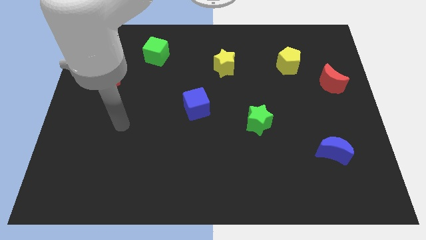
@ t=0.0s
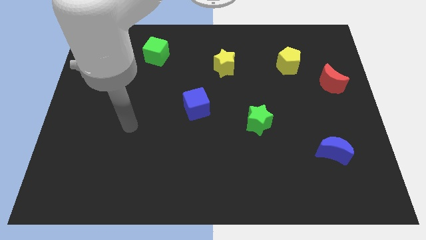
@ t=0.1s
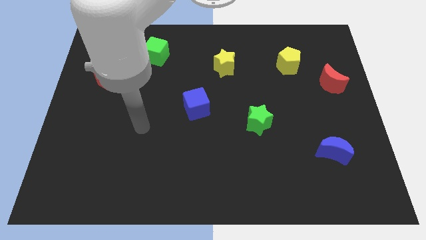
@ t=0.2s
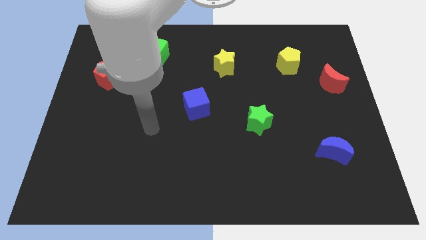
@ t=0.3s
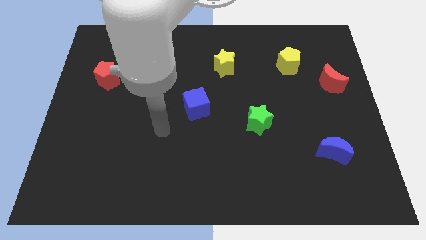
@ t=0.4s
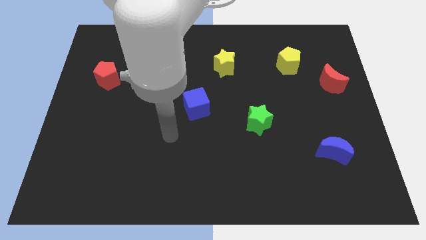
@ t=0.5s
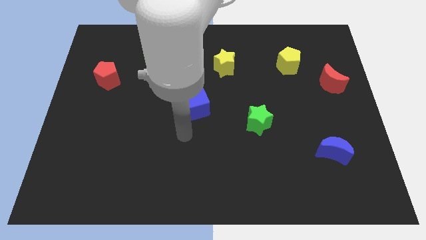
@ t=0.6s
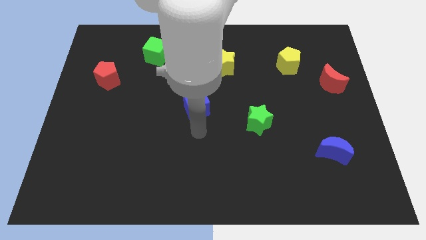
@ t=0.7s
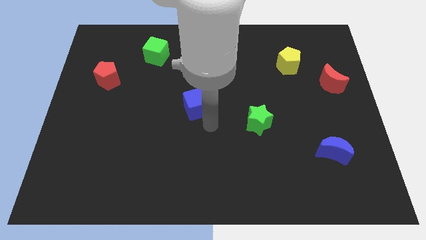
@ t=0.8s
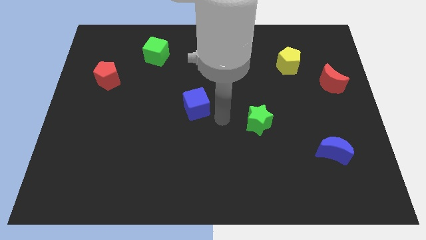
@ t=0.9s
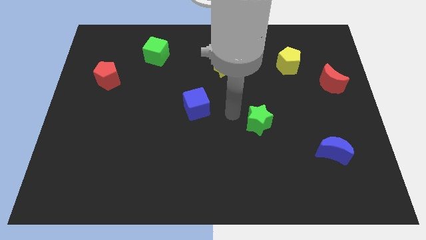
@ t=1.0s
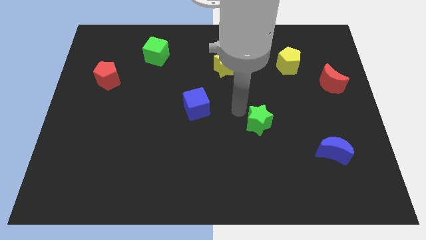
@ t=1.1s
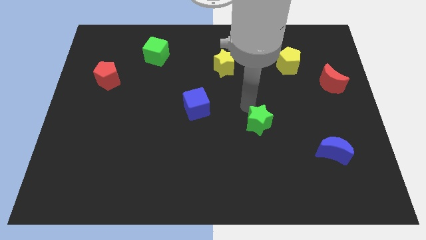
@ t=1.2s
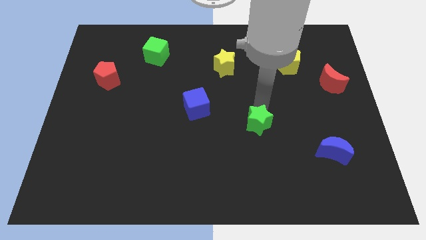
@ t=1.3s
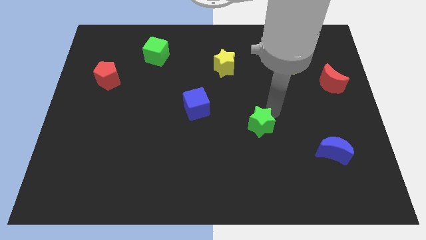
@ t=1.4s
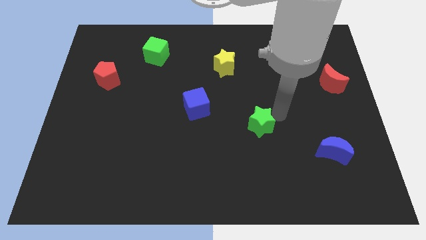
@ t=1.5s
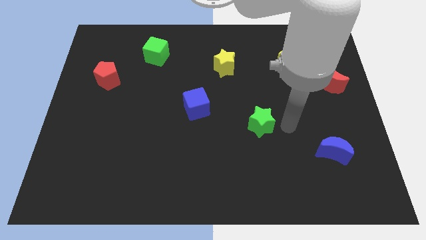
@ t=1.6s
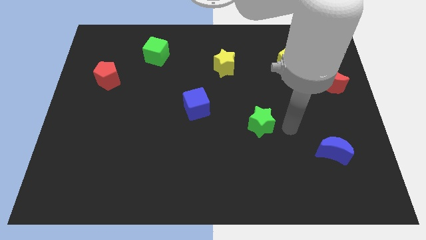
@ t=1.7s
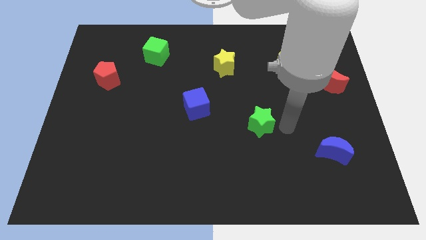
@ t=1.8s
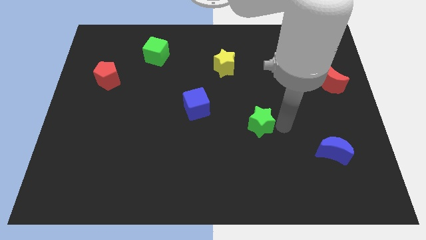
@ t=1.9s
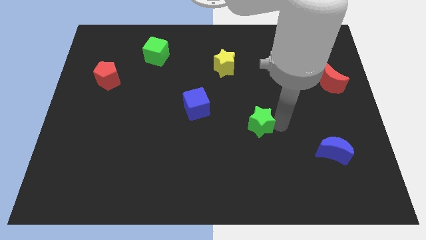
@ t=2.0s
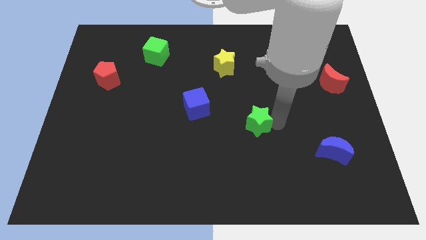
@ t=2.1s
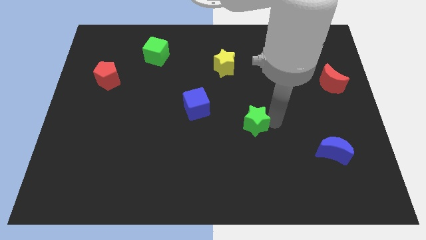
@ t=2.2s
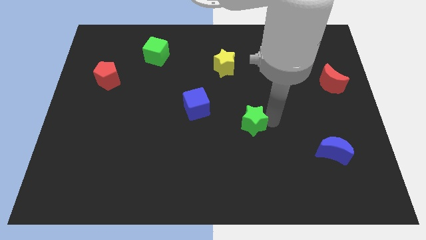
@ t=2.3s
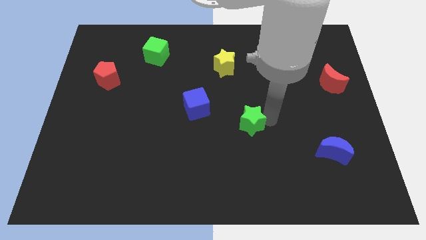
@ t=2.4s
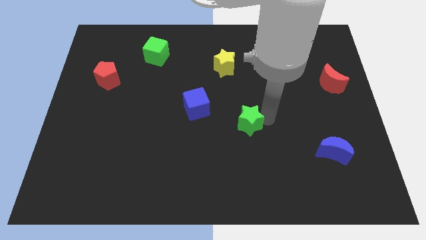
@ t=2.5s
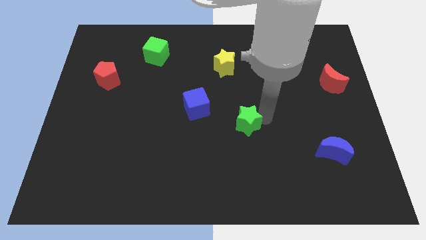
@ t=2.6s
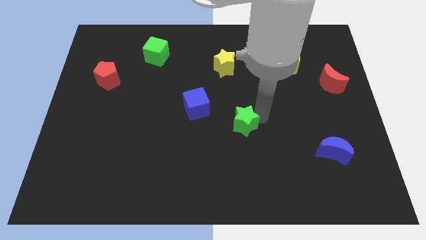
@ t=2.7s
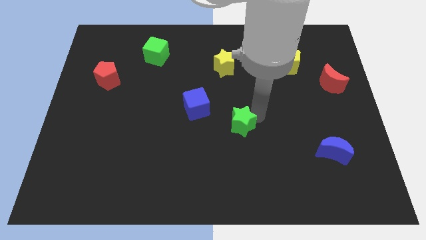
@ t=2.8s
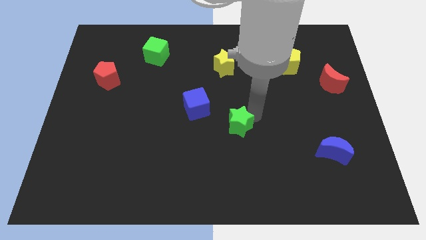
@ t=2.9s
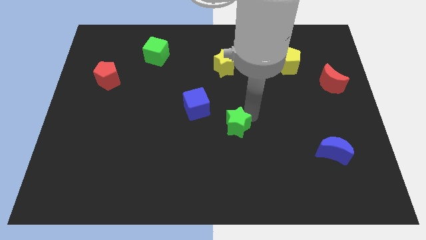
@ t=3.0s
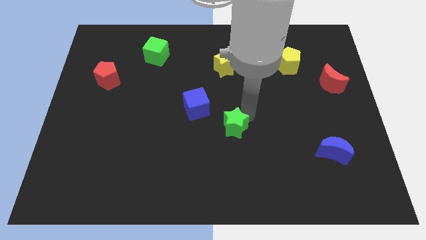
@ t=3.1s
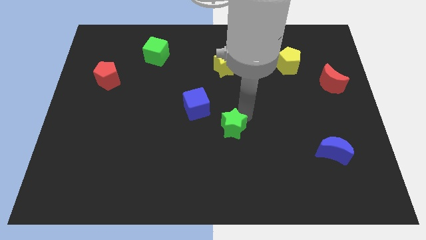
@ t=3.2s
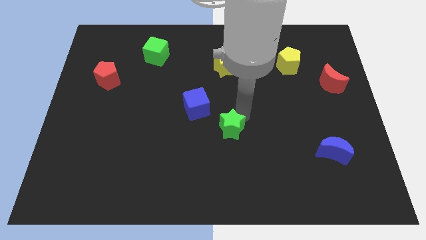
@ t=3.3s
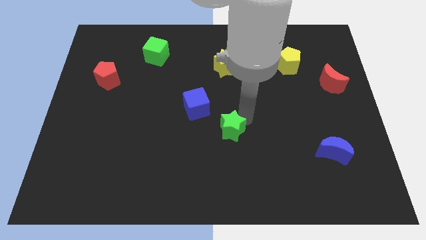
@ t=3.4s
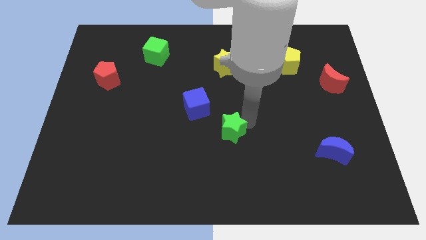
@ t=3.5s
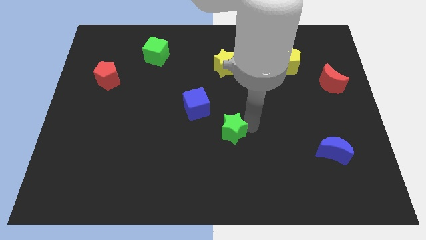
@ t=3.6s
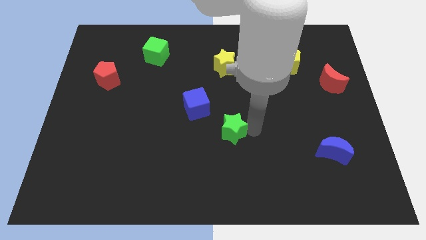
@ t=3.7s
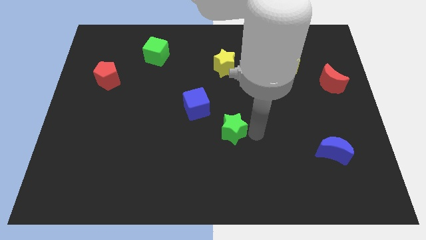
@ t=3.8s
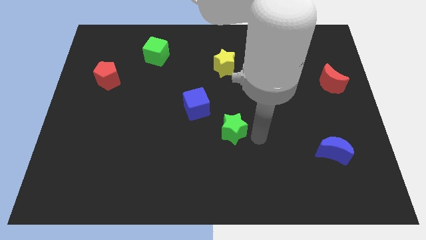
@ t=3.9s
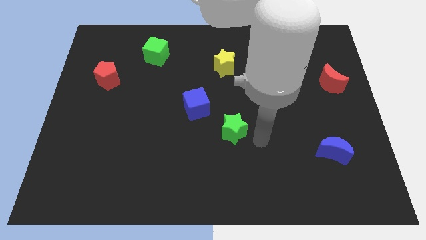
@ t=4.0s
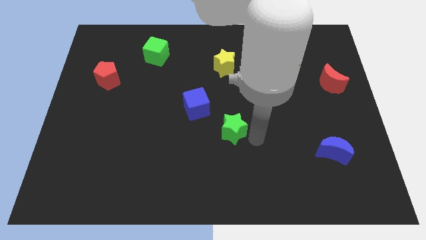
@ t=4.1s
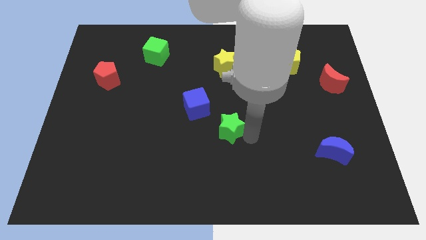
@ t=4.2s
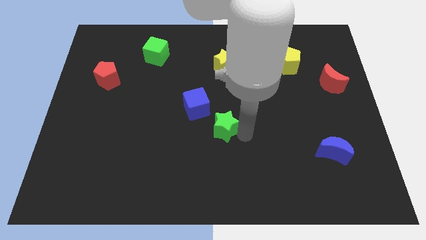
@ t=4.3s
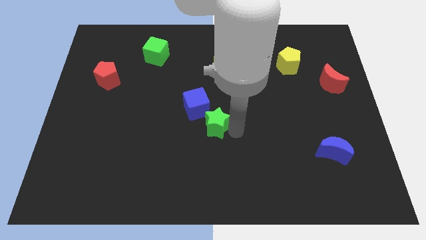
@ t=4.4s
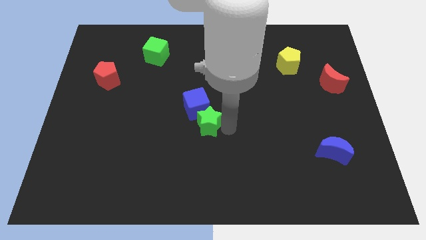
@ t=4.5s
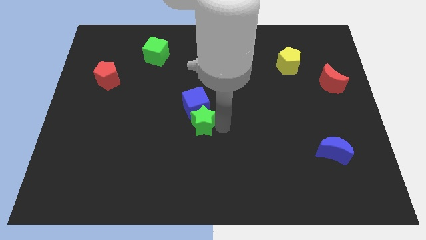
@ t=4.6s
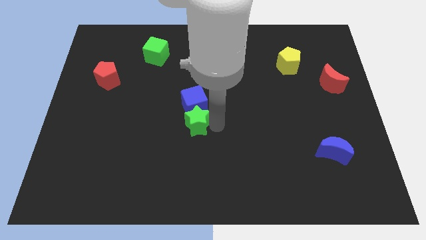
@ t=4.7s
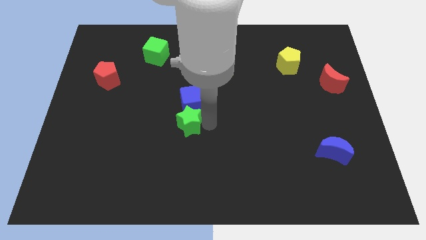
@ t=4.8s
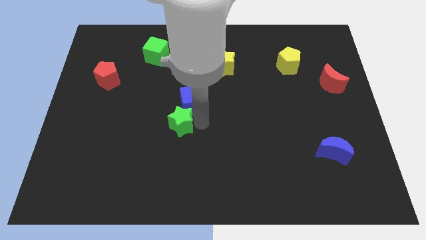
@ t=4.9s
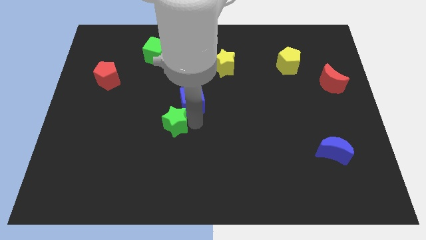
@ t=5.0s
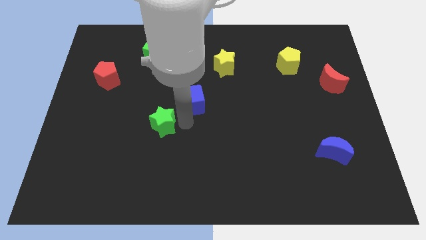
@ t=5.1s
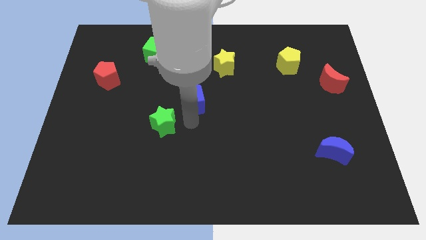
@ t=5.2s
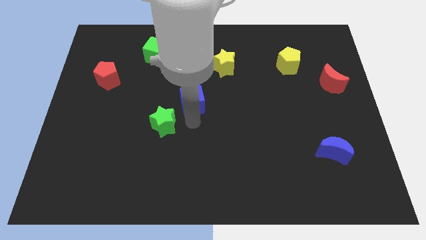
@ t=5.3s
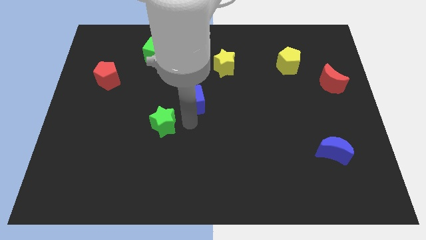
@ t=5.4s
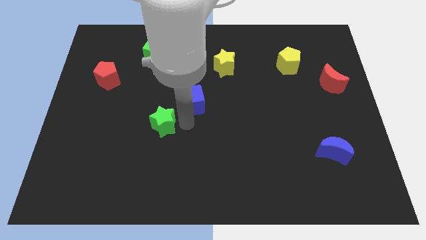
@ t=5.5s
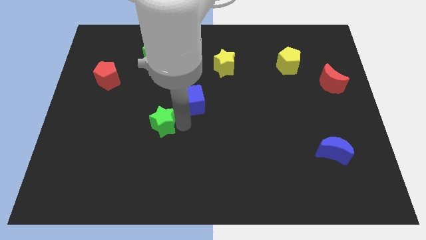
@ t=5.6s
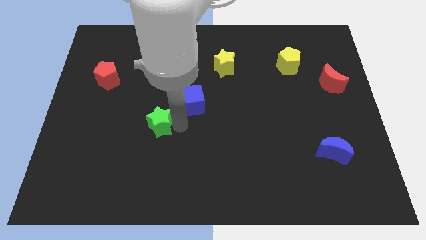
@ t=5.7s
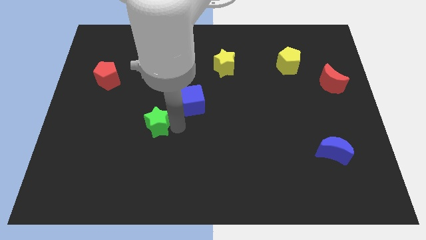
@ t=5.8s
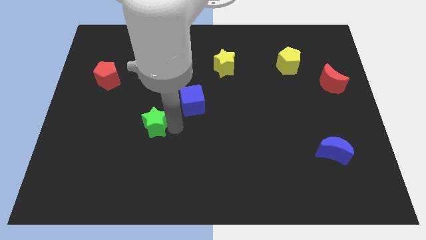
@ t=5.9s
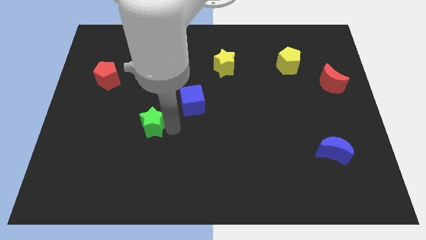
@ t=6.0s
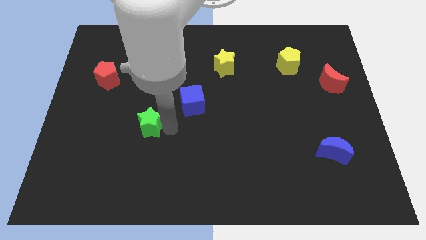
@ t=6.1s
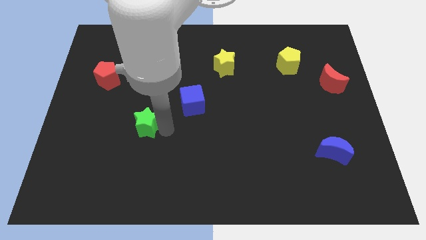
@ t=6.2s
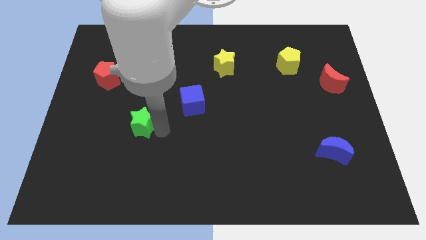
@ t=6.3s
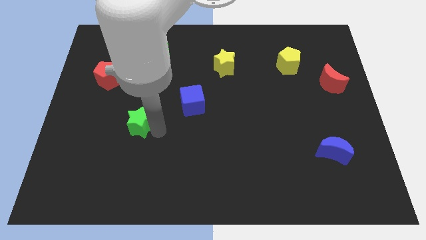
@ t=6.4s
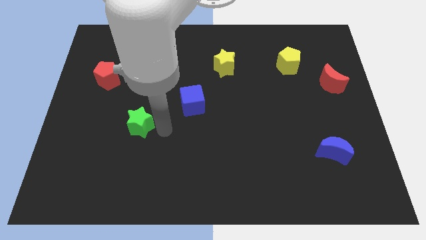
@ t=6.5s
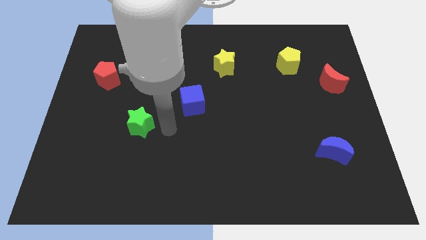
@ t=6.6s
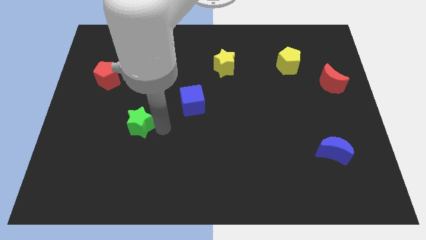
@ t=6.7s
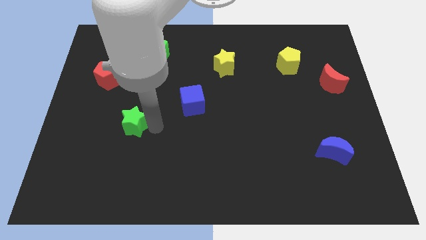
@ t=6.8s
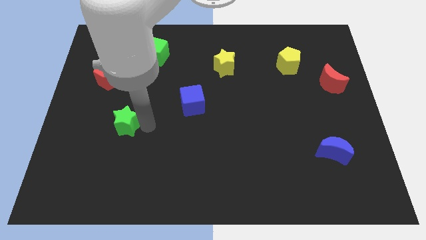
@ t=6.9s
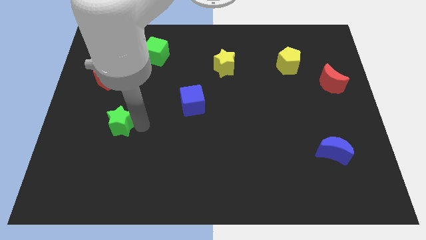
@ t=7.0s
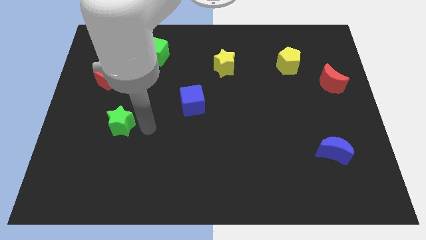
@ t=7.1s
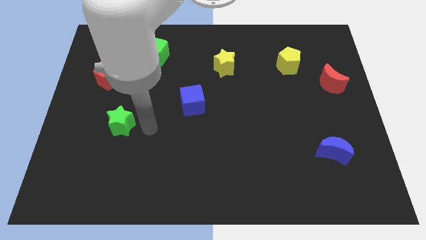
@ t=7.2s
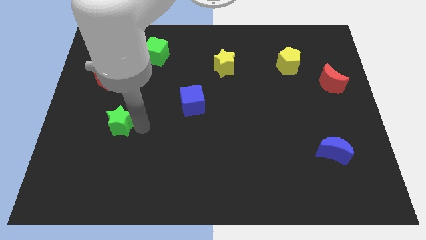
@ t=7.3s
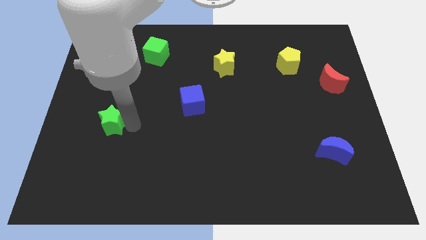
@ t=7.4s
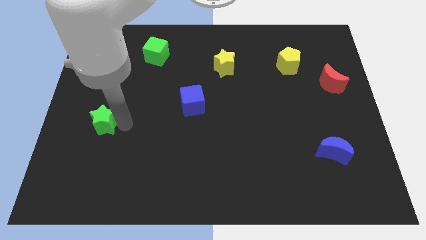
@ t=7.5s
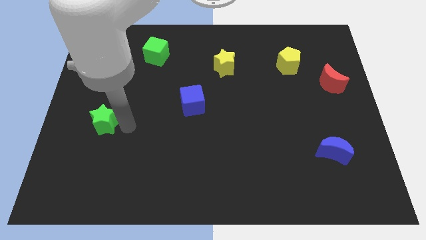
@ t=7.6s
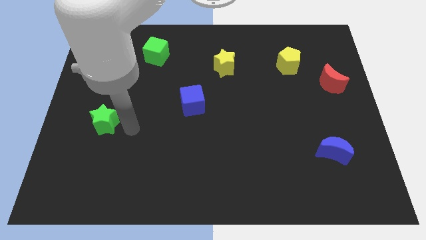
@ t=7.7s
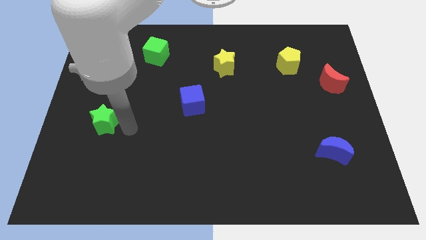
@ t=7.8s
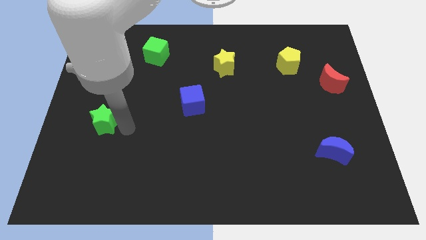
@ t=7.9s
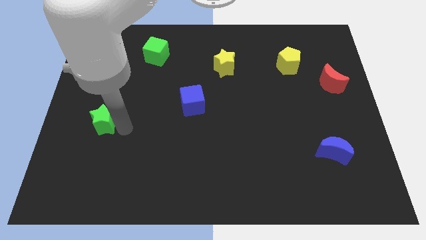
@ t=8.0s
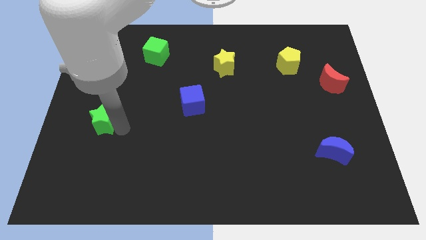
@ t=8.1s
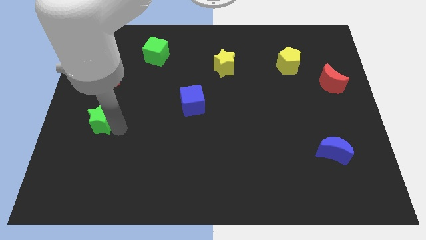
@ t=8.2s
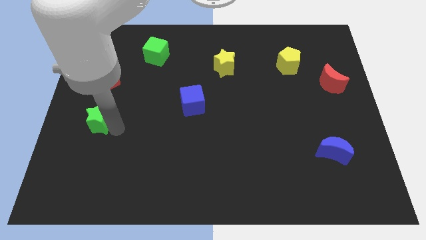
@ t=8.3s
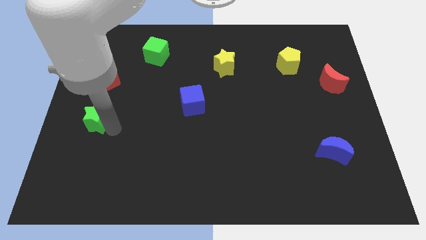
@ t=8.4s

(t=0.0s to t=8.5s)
push the green star to the left side
